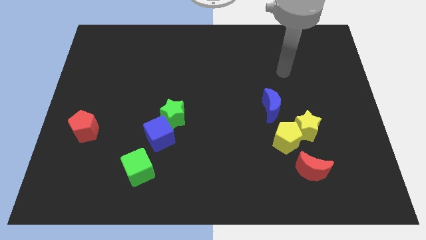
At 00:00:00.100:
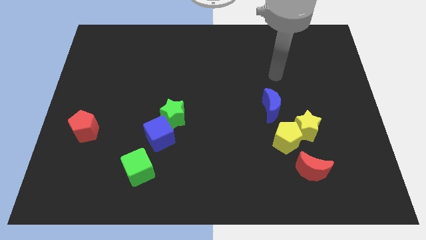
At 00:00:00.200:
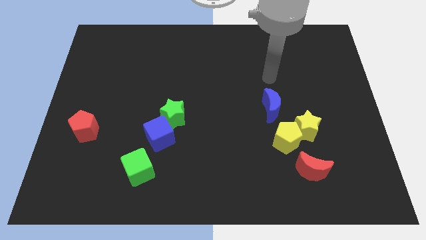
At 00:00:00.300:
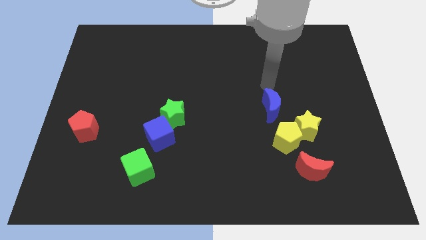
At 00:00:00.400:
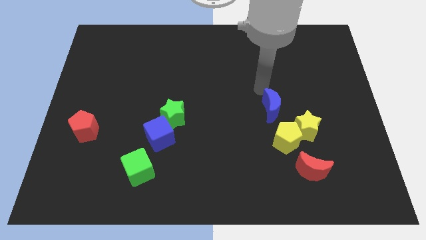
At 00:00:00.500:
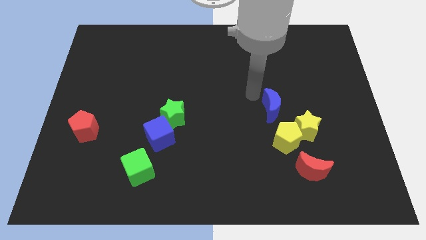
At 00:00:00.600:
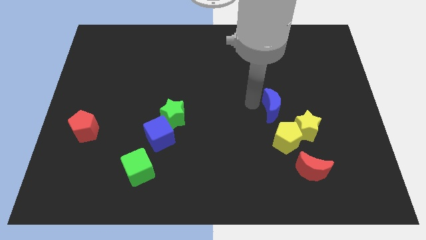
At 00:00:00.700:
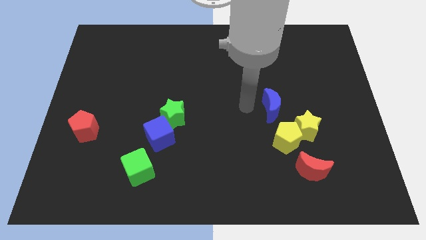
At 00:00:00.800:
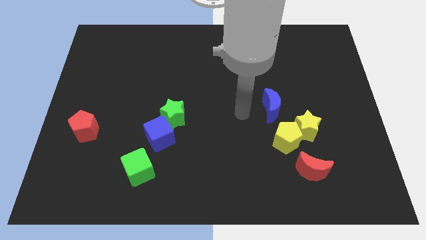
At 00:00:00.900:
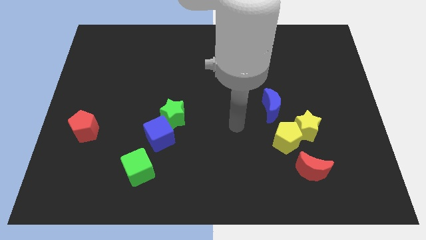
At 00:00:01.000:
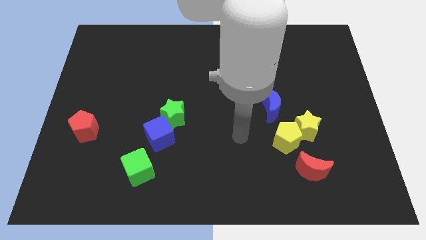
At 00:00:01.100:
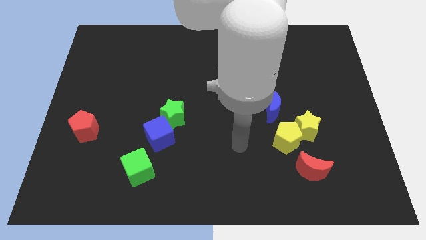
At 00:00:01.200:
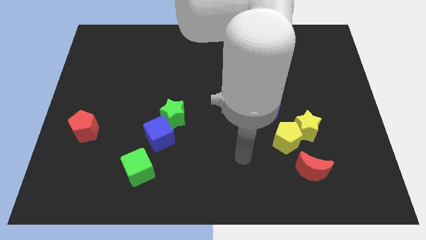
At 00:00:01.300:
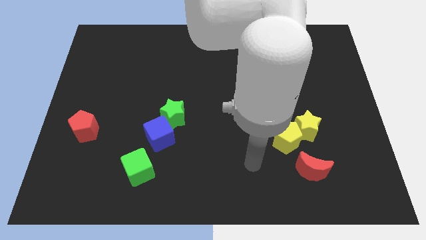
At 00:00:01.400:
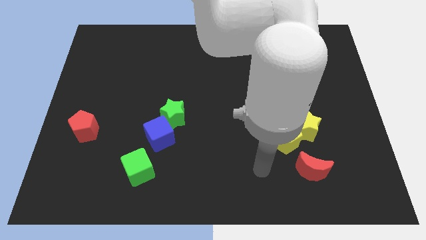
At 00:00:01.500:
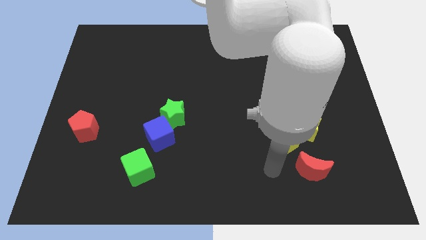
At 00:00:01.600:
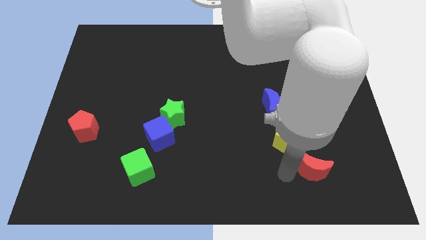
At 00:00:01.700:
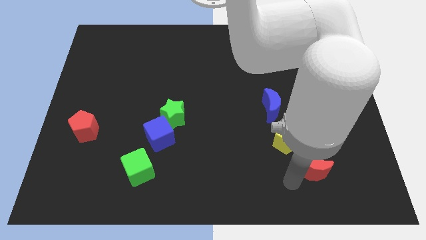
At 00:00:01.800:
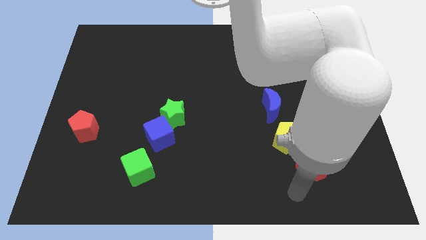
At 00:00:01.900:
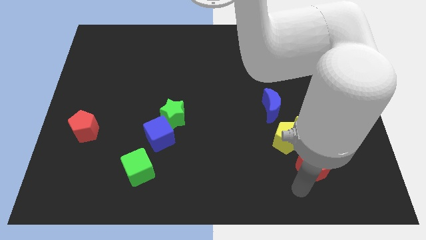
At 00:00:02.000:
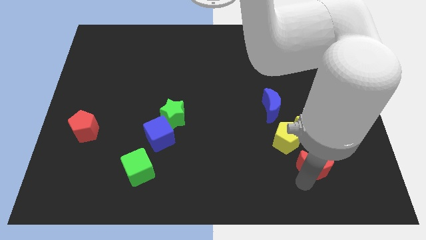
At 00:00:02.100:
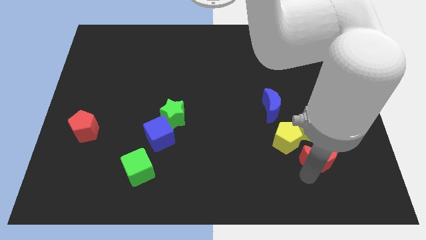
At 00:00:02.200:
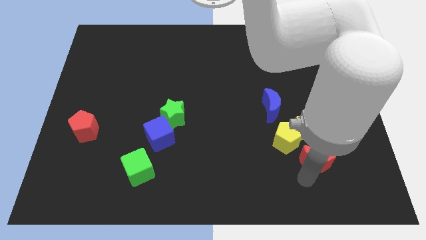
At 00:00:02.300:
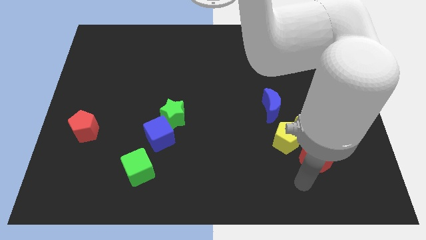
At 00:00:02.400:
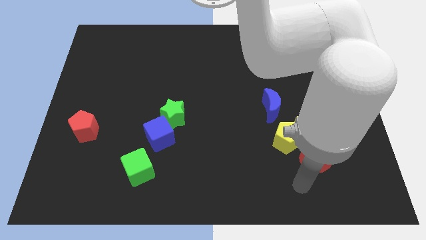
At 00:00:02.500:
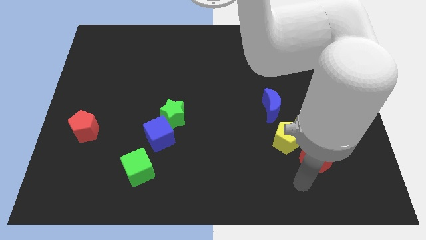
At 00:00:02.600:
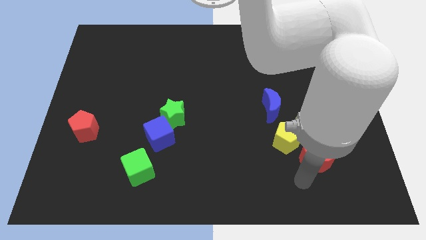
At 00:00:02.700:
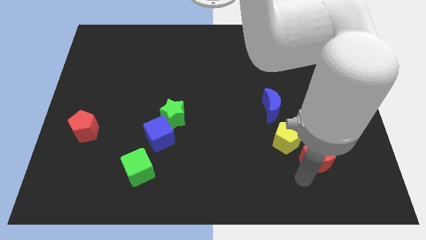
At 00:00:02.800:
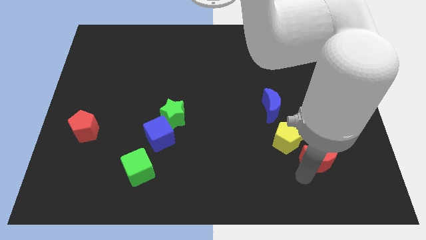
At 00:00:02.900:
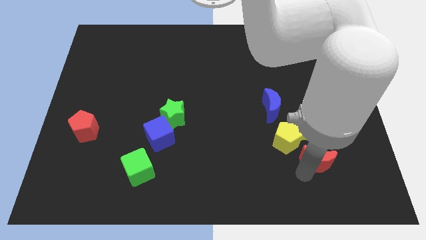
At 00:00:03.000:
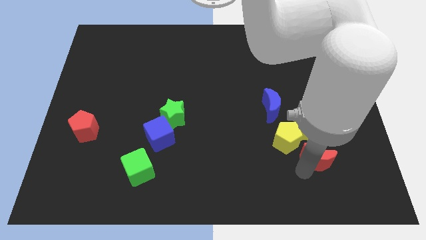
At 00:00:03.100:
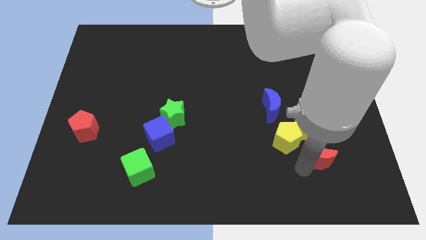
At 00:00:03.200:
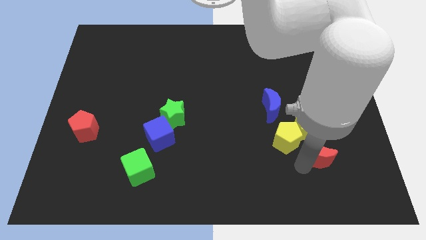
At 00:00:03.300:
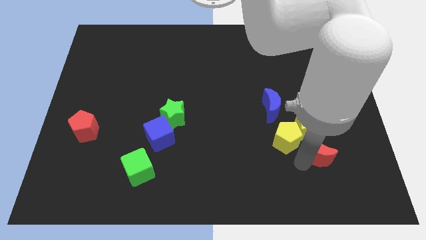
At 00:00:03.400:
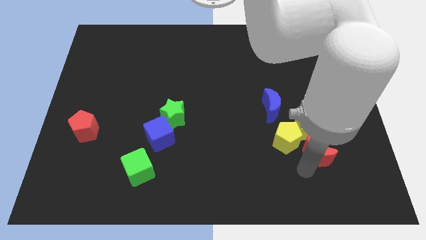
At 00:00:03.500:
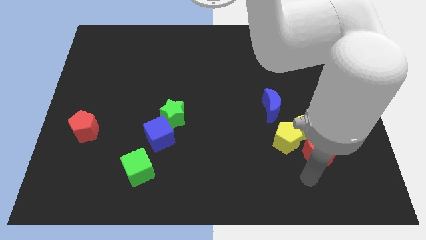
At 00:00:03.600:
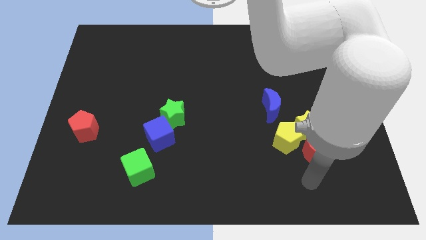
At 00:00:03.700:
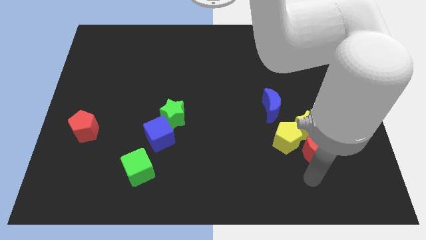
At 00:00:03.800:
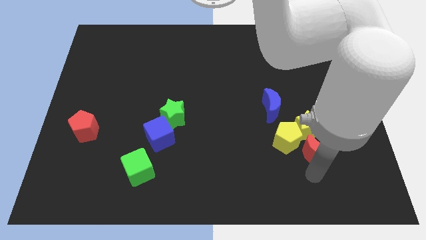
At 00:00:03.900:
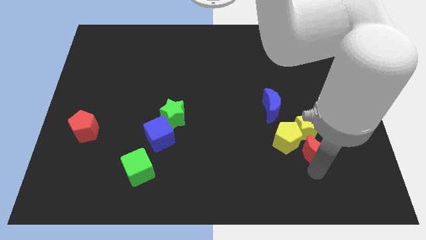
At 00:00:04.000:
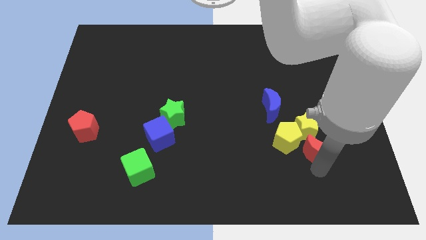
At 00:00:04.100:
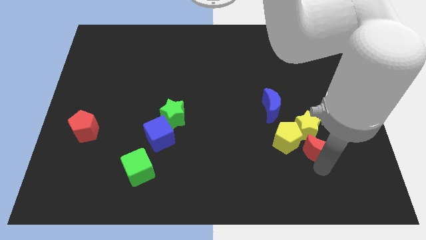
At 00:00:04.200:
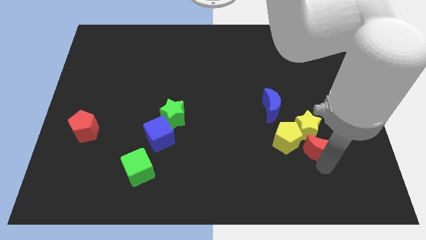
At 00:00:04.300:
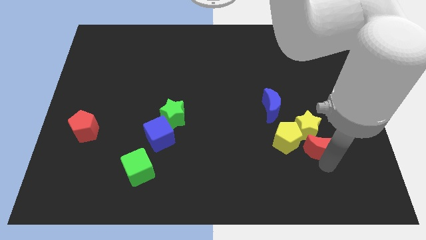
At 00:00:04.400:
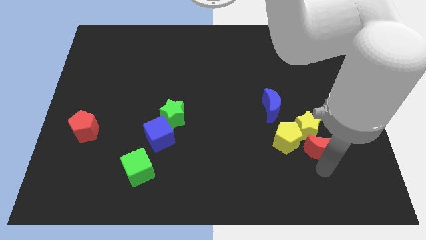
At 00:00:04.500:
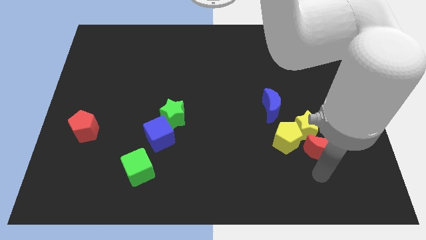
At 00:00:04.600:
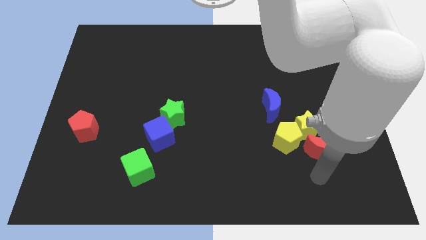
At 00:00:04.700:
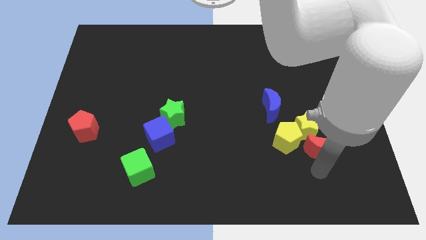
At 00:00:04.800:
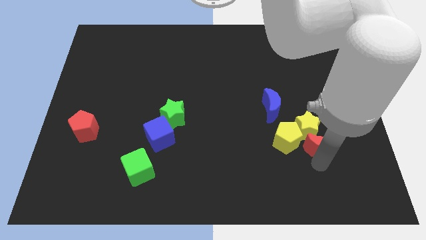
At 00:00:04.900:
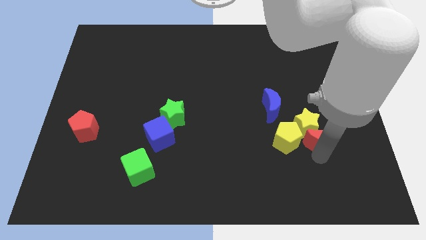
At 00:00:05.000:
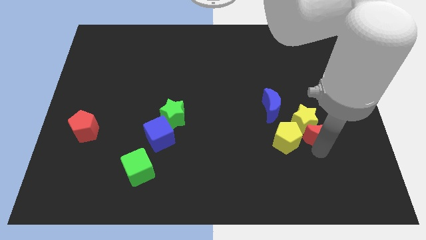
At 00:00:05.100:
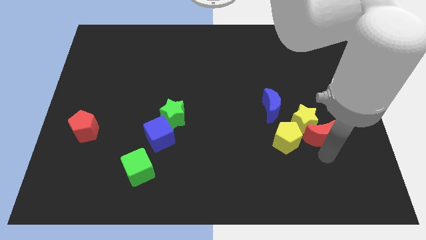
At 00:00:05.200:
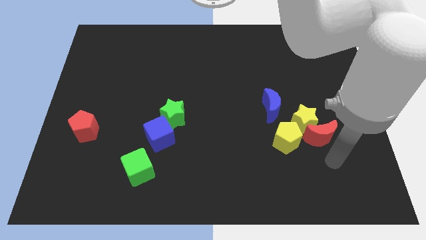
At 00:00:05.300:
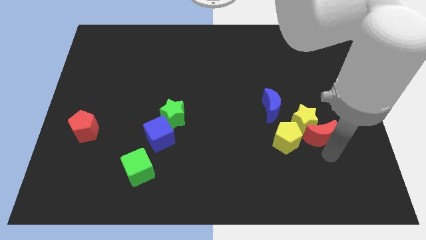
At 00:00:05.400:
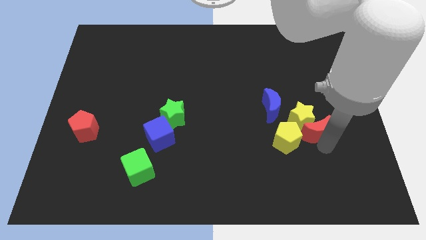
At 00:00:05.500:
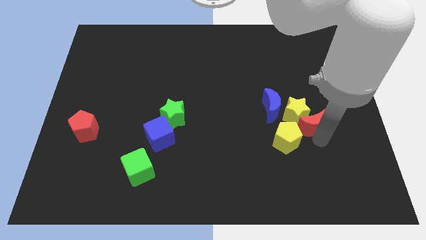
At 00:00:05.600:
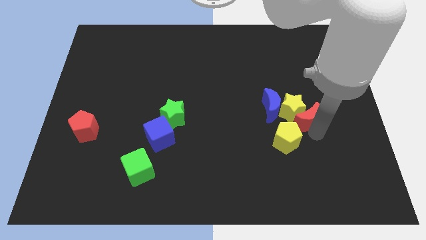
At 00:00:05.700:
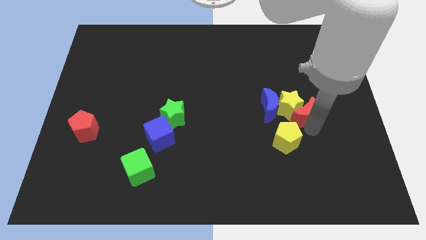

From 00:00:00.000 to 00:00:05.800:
slide the red moon above the yellow pentagon
